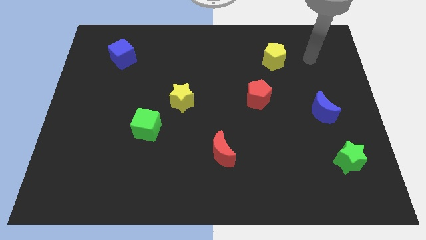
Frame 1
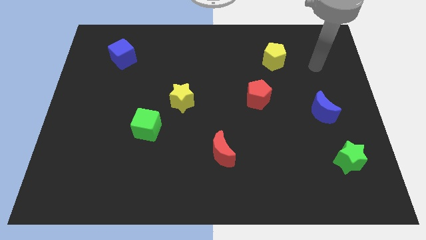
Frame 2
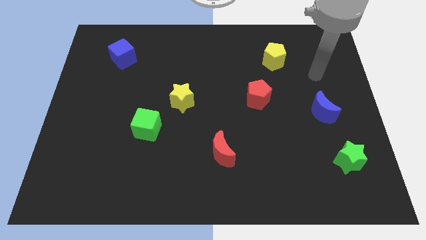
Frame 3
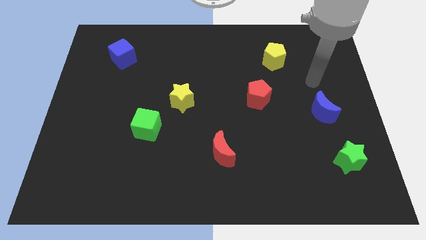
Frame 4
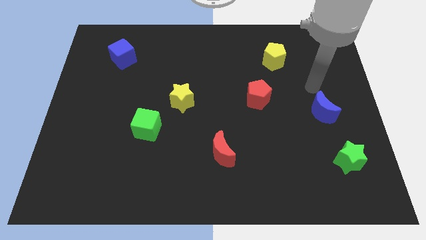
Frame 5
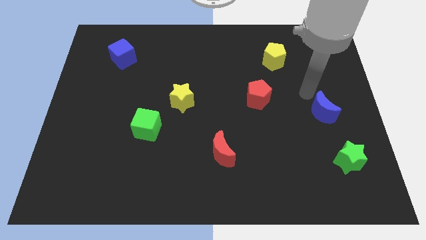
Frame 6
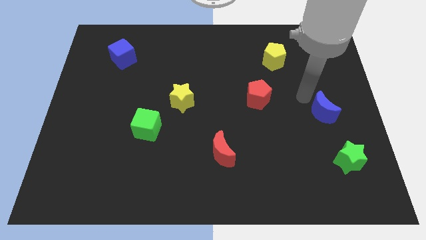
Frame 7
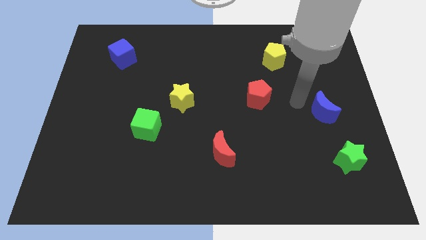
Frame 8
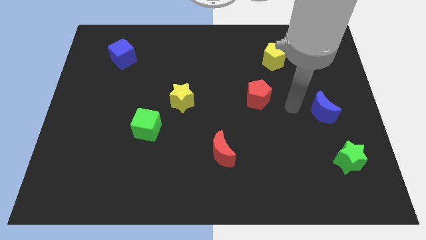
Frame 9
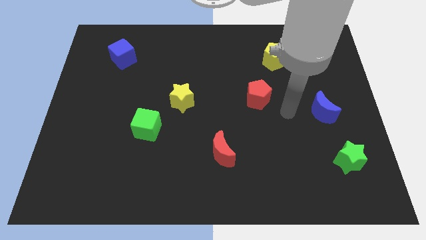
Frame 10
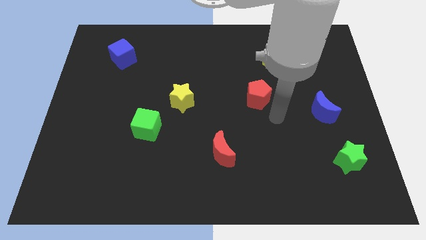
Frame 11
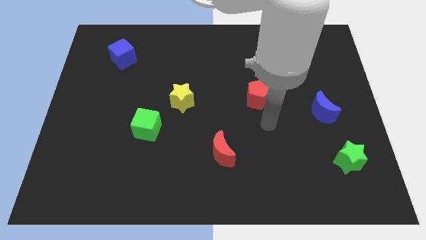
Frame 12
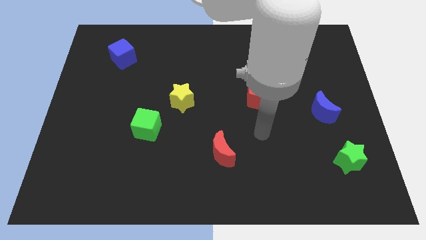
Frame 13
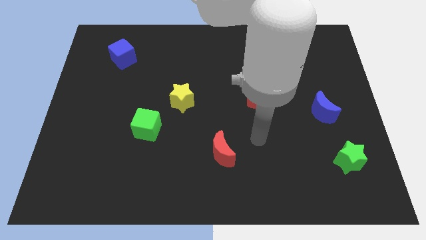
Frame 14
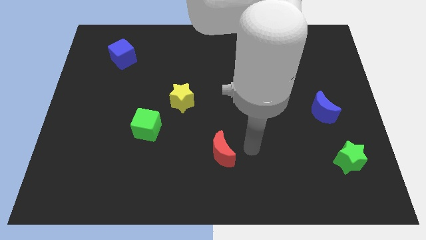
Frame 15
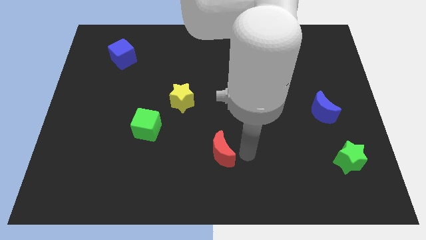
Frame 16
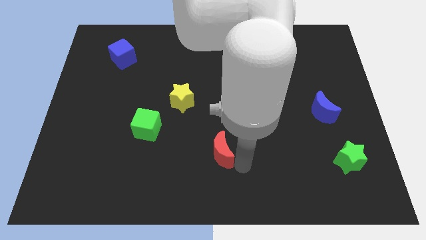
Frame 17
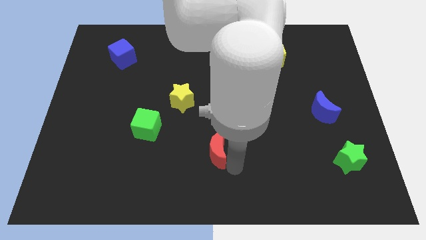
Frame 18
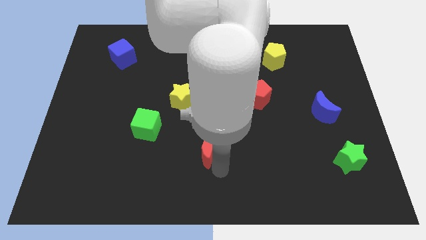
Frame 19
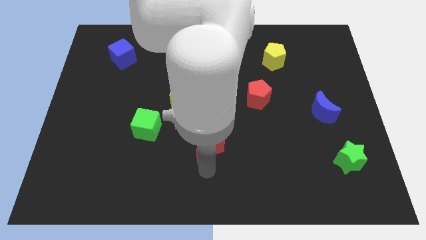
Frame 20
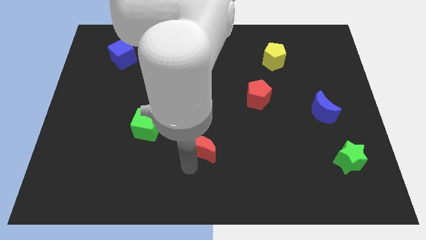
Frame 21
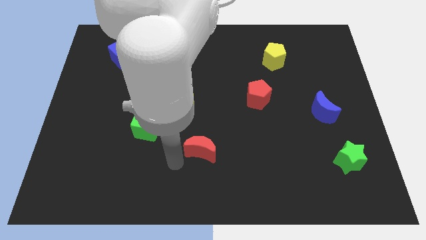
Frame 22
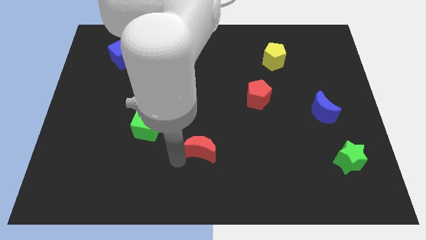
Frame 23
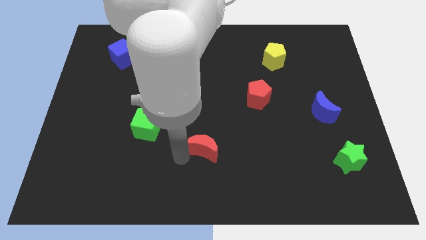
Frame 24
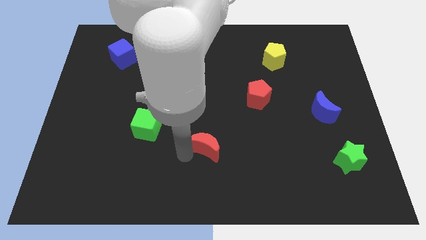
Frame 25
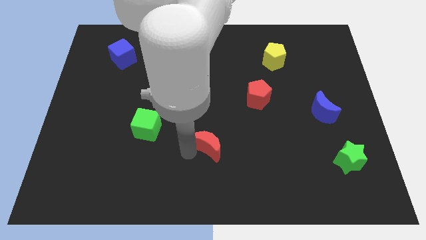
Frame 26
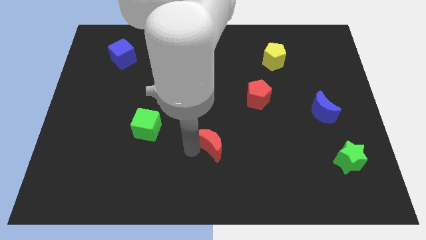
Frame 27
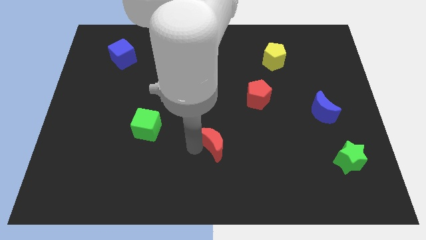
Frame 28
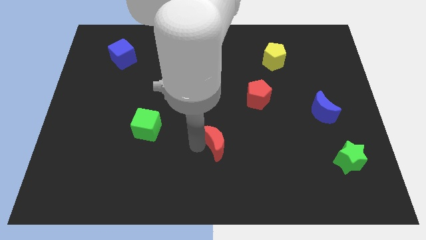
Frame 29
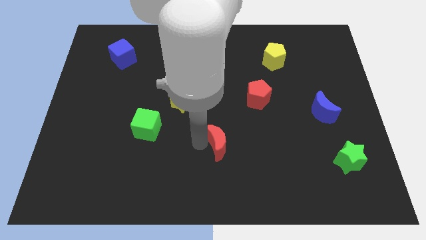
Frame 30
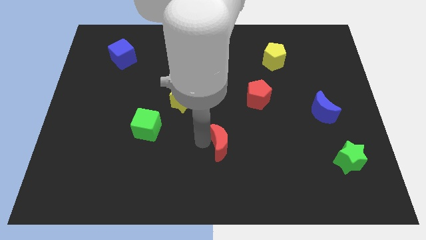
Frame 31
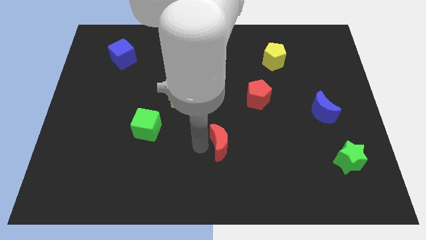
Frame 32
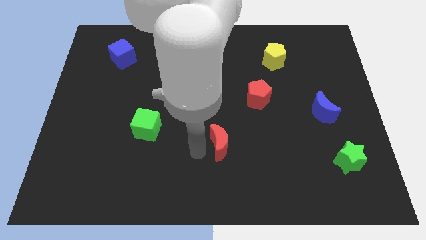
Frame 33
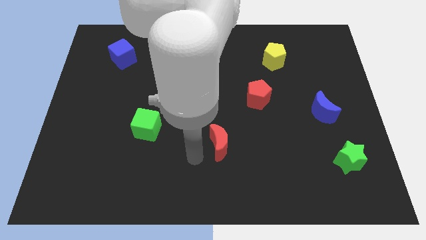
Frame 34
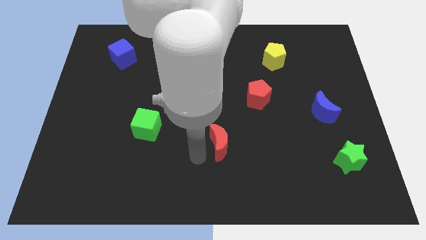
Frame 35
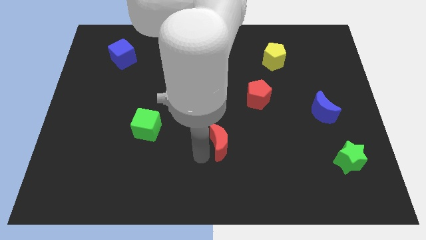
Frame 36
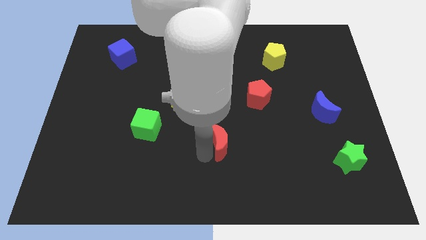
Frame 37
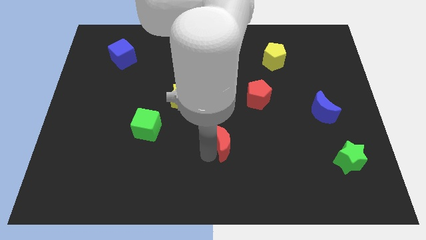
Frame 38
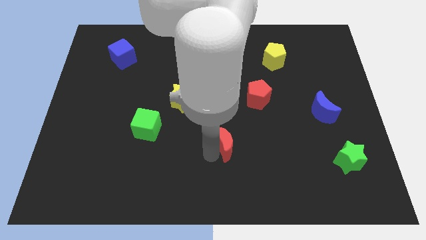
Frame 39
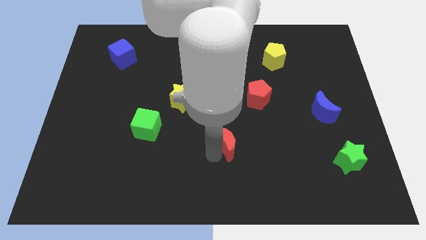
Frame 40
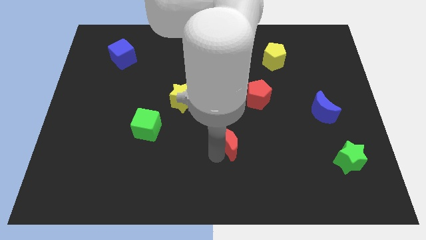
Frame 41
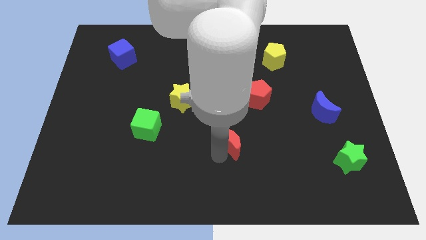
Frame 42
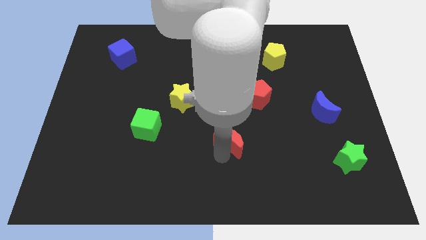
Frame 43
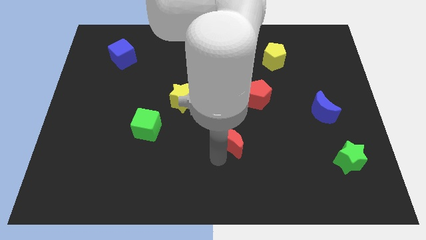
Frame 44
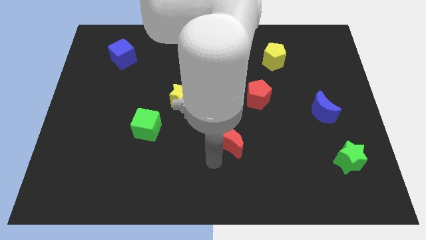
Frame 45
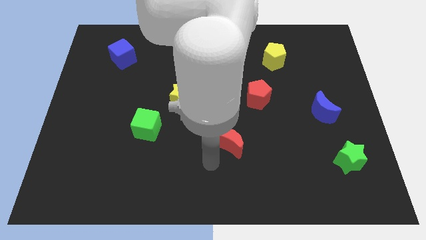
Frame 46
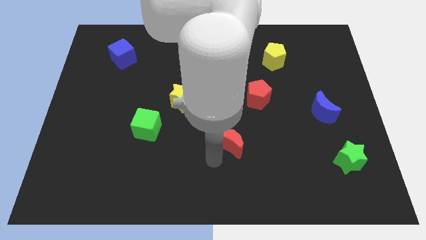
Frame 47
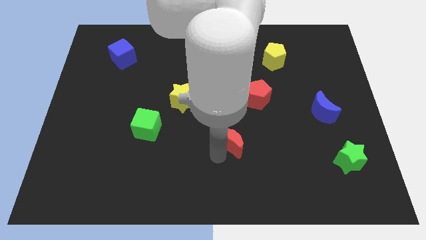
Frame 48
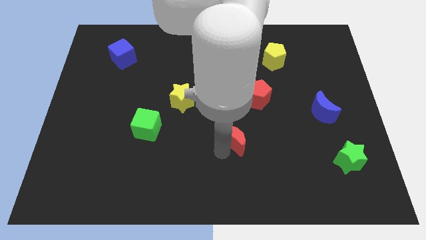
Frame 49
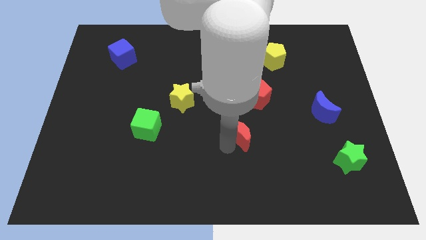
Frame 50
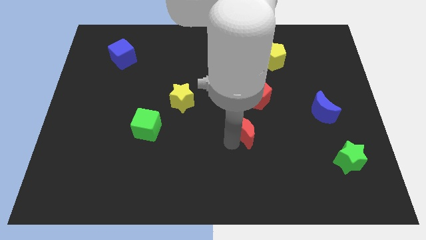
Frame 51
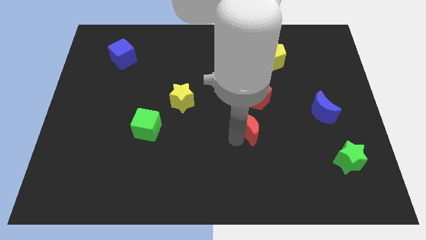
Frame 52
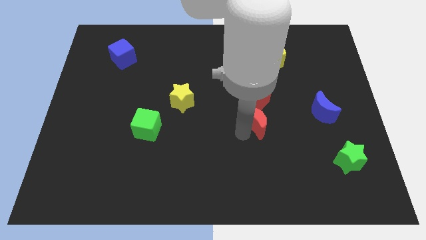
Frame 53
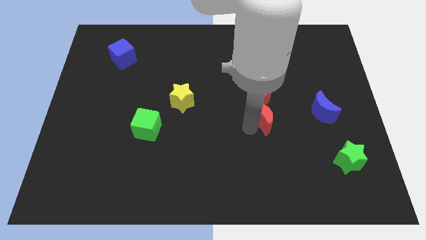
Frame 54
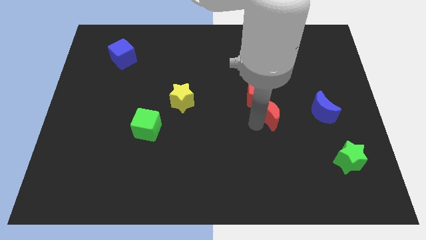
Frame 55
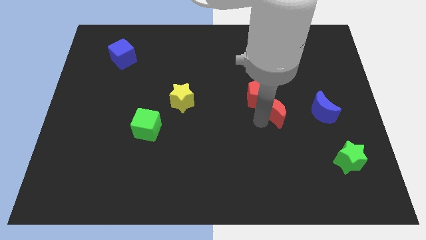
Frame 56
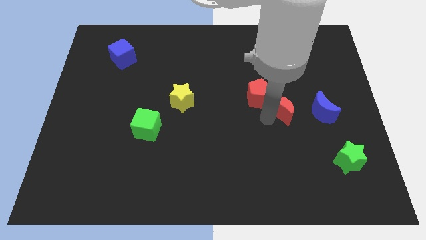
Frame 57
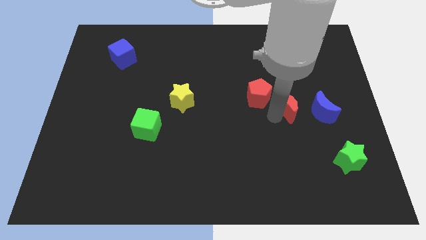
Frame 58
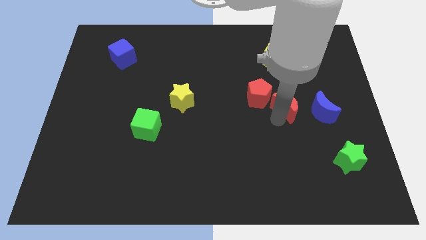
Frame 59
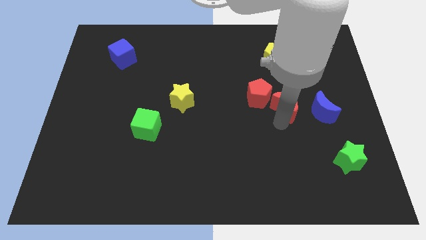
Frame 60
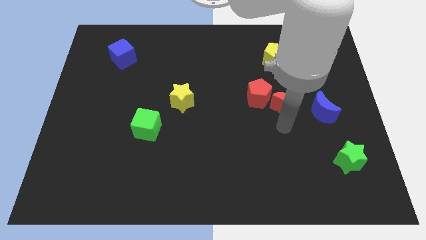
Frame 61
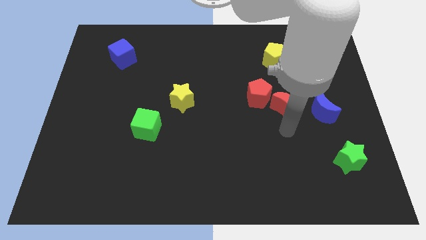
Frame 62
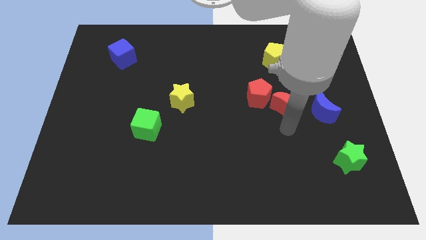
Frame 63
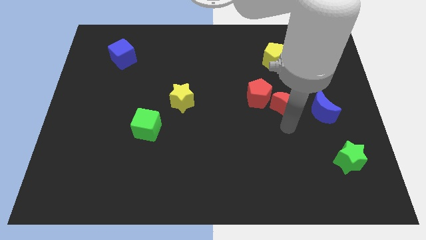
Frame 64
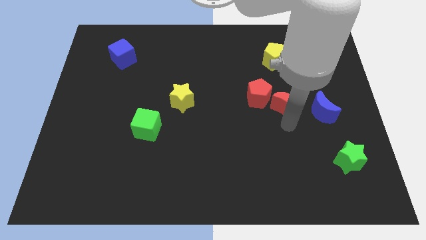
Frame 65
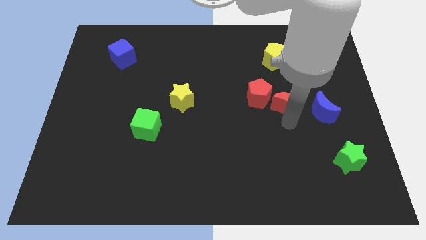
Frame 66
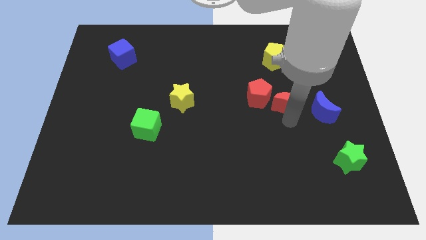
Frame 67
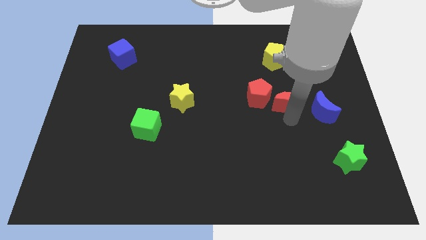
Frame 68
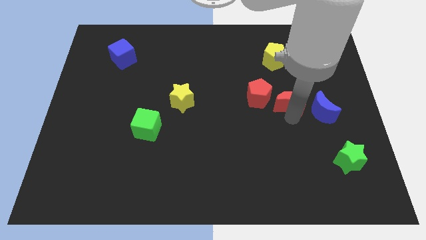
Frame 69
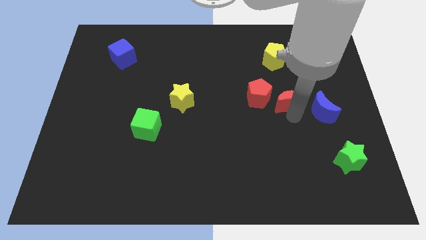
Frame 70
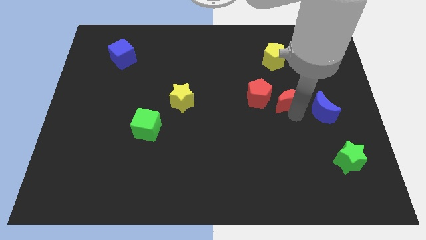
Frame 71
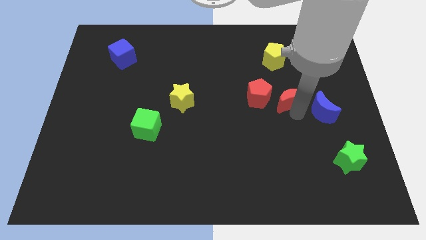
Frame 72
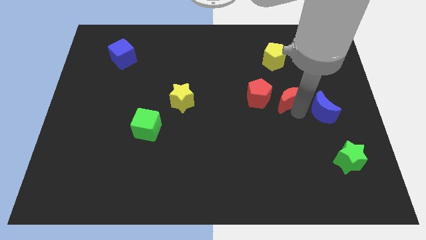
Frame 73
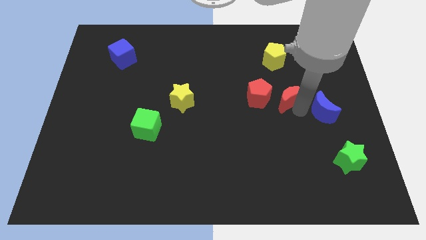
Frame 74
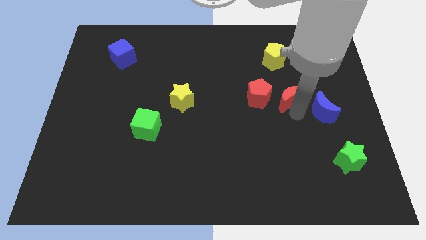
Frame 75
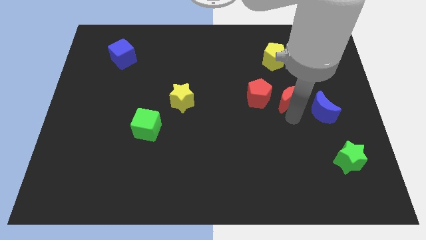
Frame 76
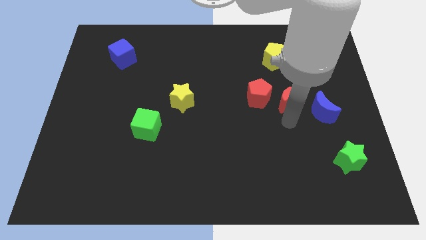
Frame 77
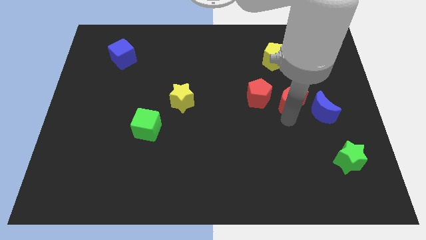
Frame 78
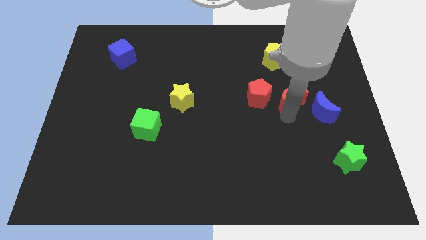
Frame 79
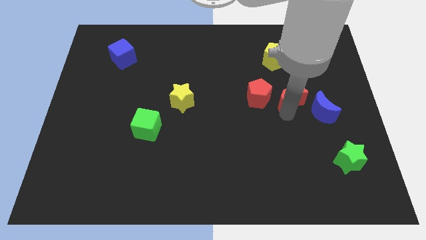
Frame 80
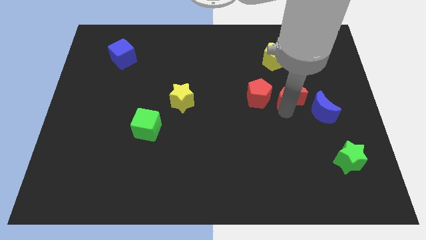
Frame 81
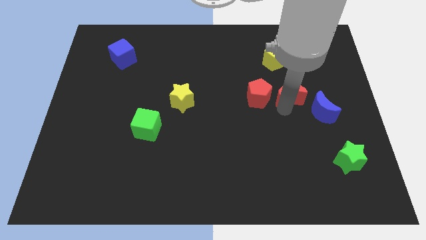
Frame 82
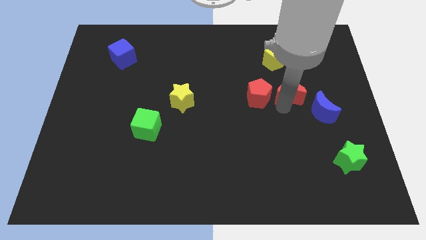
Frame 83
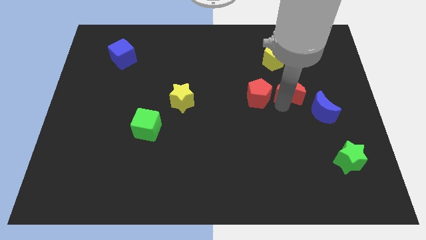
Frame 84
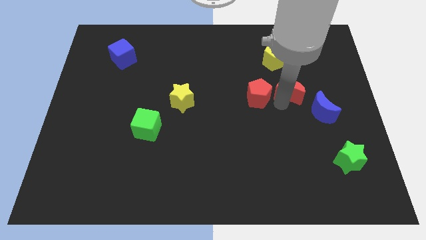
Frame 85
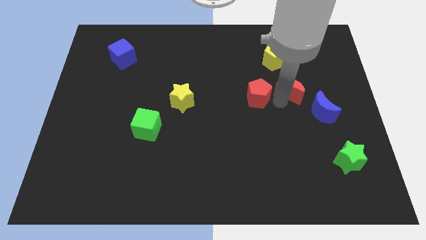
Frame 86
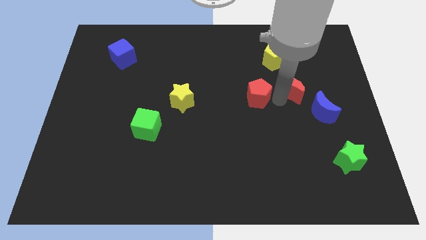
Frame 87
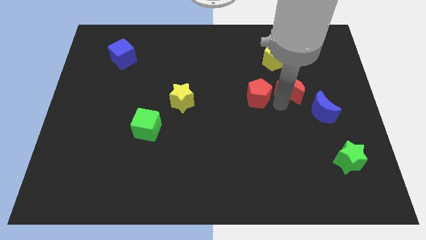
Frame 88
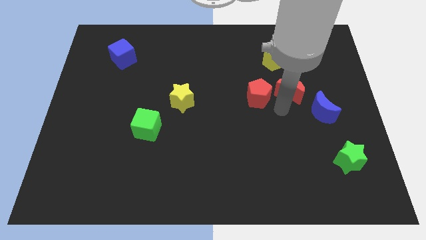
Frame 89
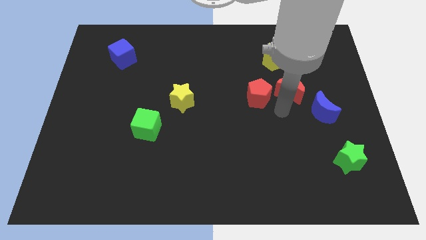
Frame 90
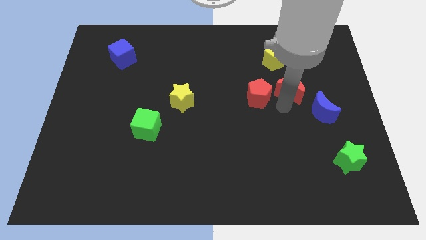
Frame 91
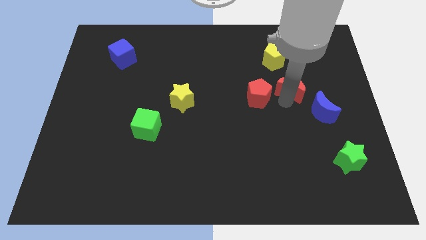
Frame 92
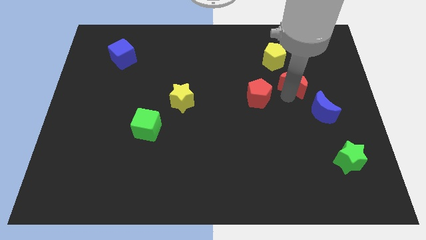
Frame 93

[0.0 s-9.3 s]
push the red moon to the bottom right side of the yellow pentagon
